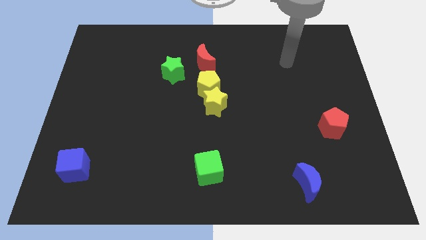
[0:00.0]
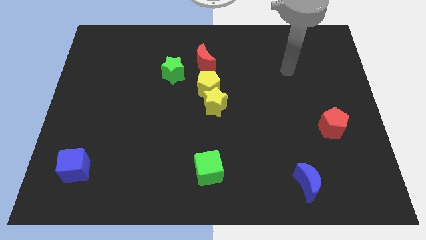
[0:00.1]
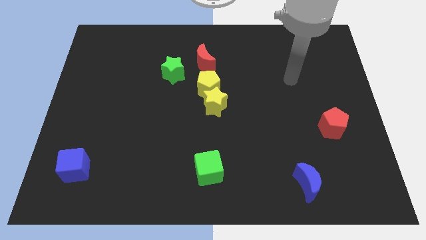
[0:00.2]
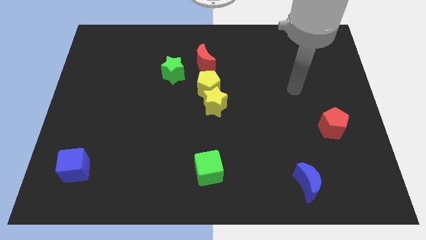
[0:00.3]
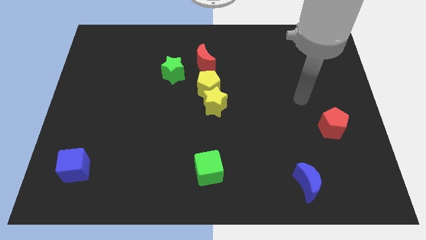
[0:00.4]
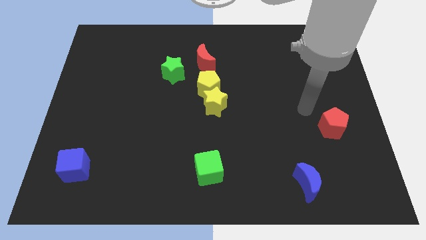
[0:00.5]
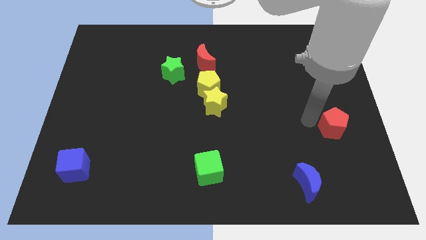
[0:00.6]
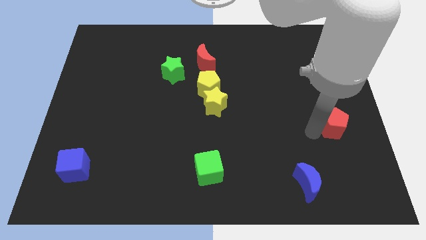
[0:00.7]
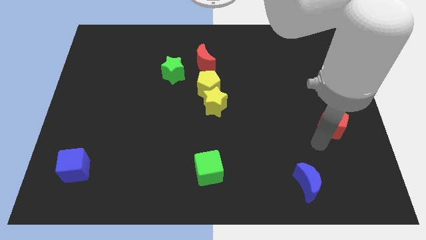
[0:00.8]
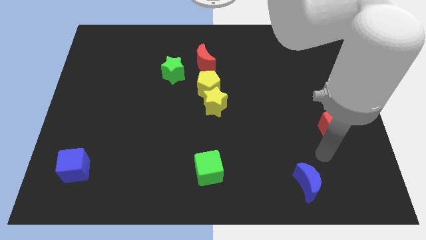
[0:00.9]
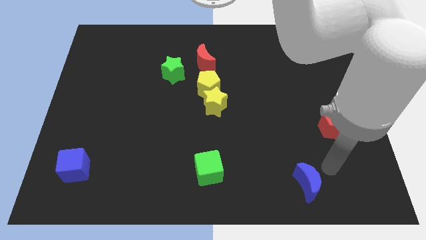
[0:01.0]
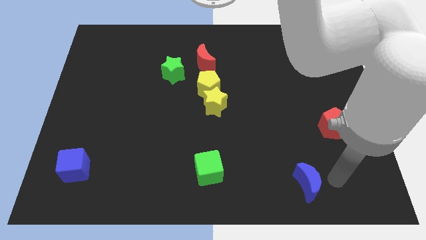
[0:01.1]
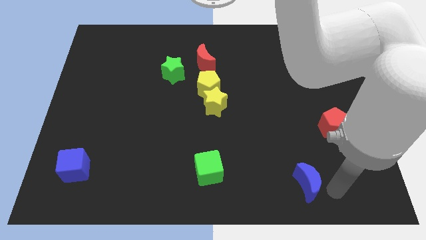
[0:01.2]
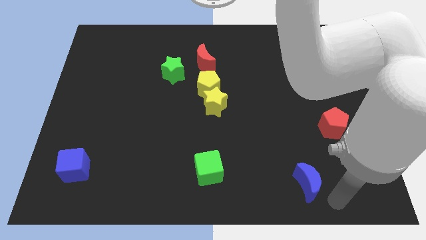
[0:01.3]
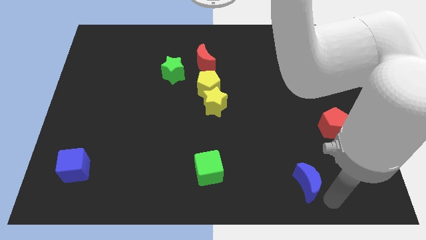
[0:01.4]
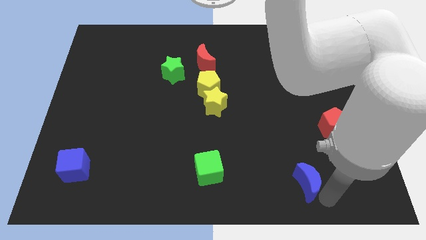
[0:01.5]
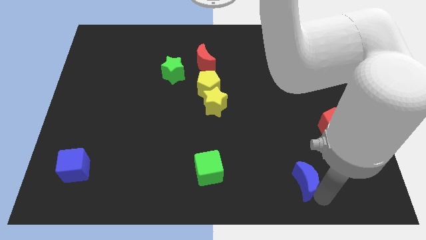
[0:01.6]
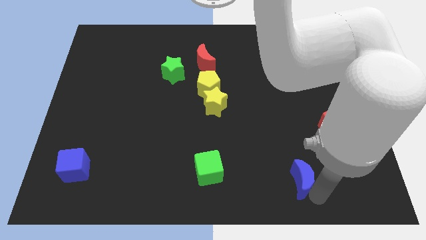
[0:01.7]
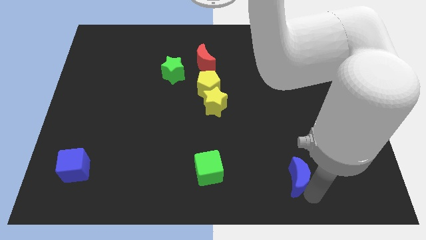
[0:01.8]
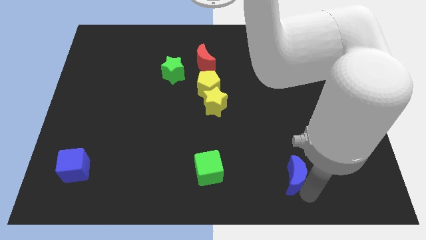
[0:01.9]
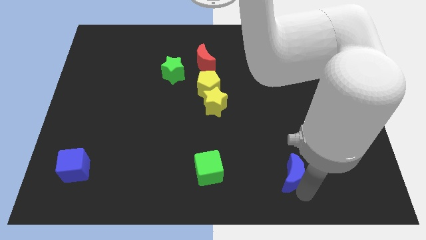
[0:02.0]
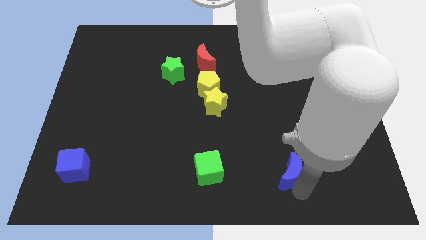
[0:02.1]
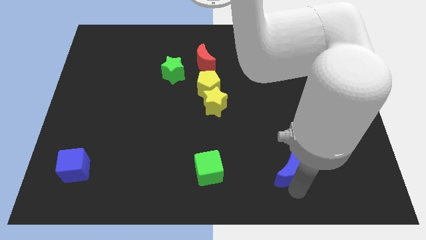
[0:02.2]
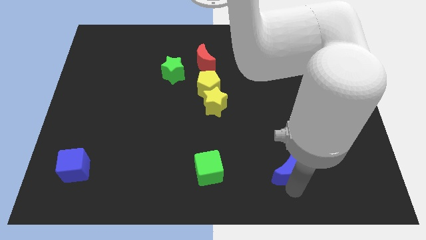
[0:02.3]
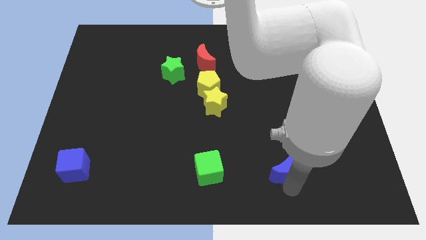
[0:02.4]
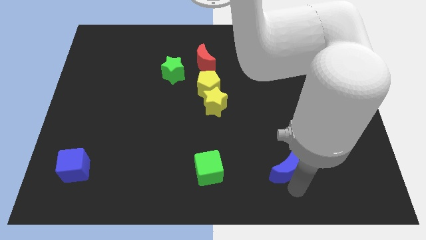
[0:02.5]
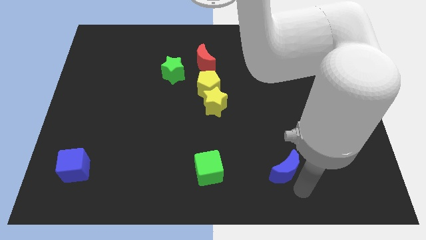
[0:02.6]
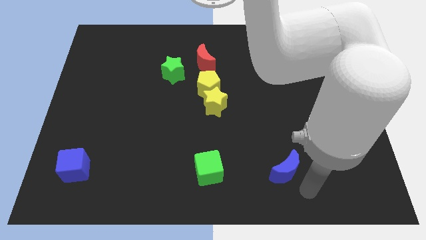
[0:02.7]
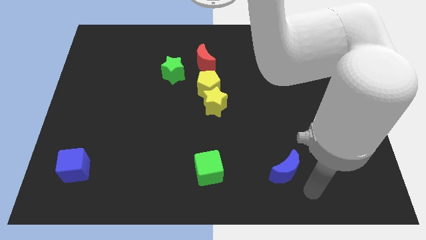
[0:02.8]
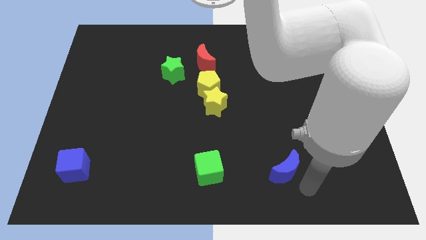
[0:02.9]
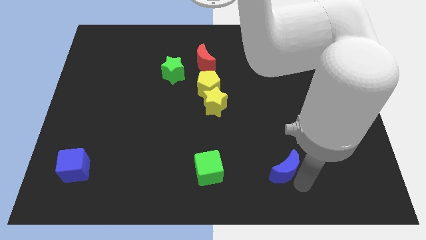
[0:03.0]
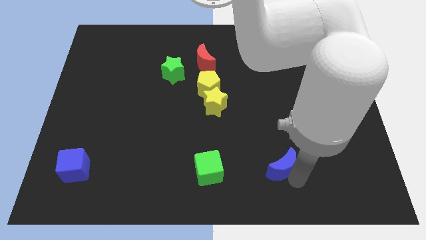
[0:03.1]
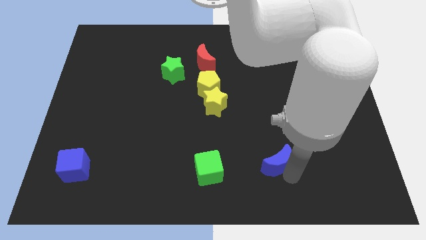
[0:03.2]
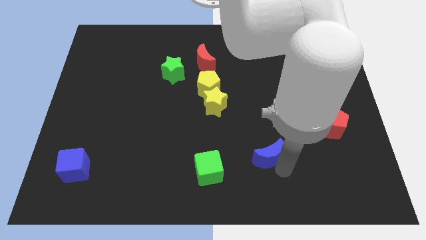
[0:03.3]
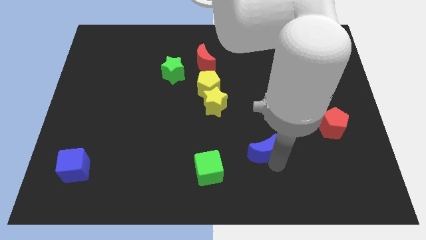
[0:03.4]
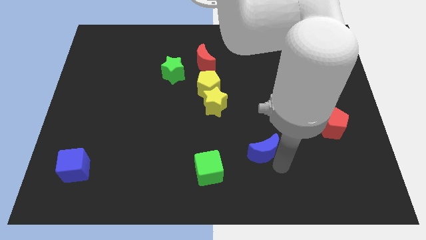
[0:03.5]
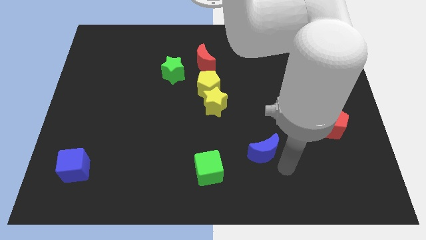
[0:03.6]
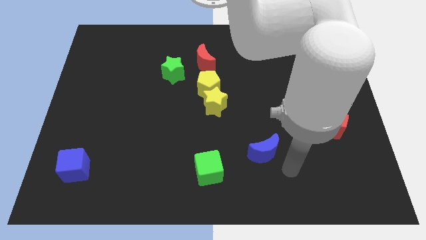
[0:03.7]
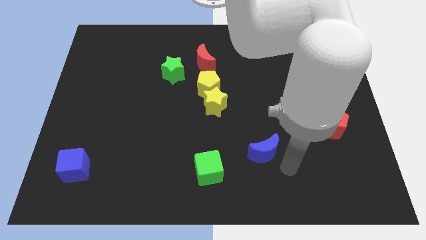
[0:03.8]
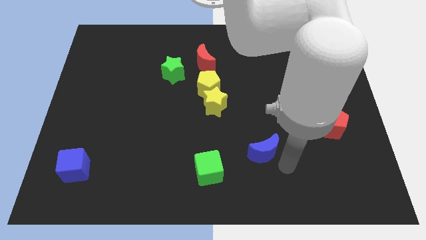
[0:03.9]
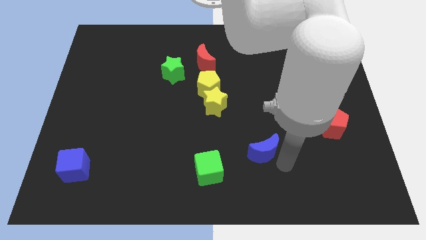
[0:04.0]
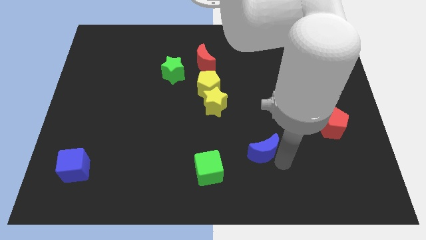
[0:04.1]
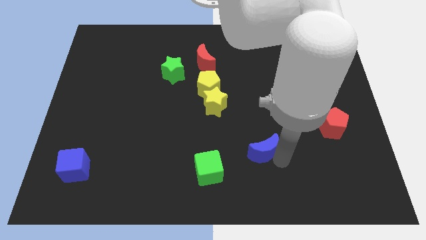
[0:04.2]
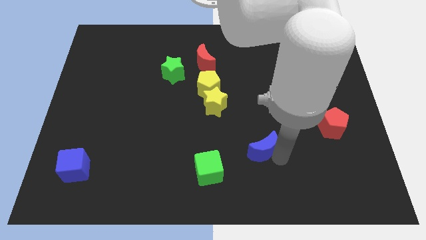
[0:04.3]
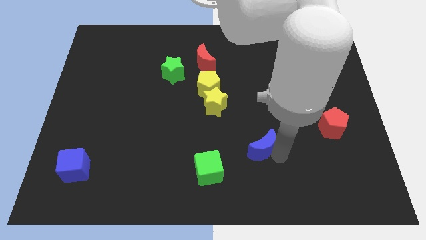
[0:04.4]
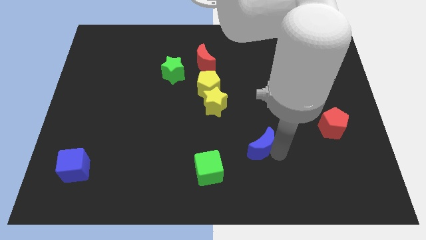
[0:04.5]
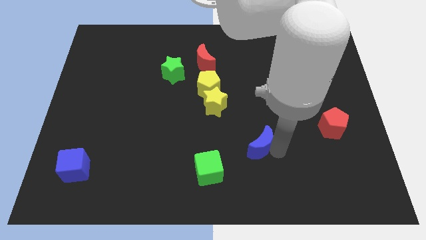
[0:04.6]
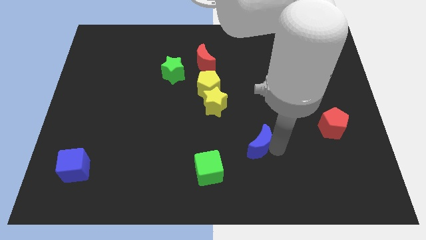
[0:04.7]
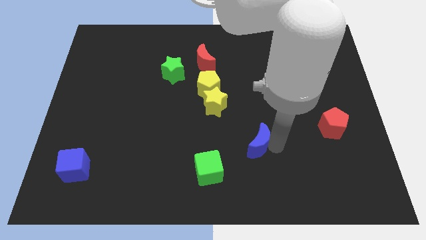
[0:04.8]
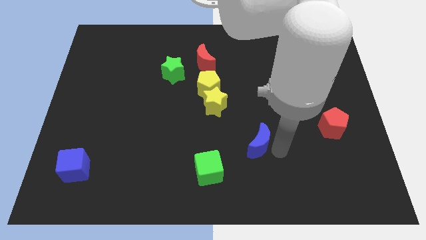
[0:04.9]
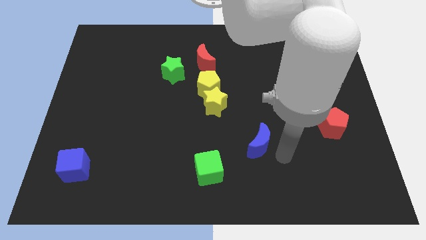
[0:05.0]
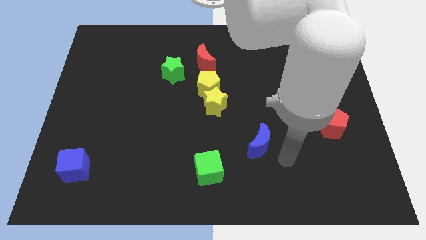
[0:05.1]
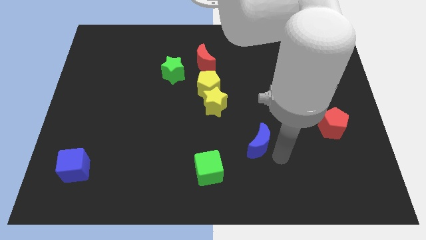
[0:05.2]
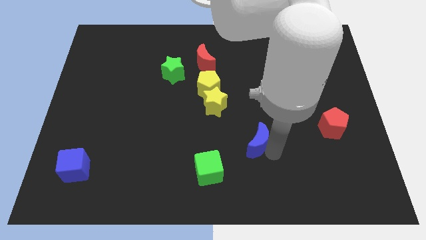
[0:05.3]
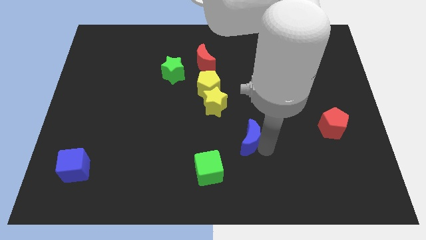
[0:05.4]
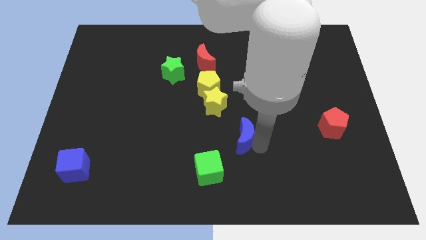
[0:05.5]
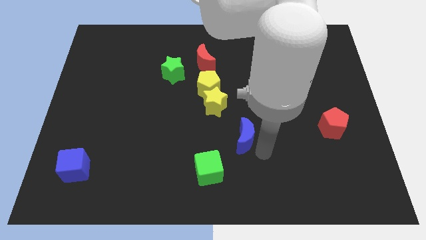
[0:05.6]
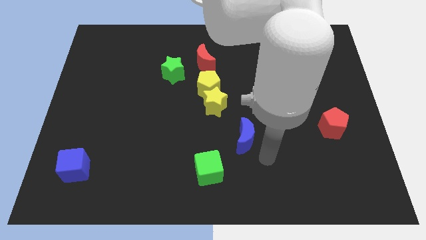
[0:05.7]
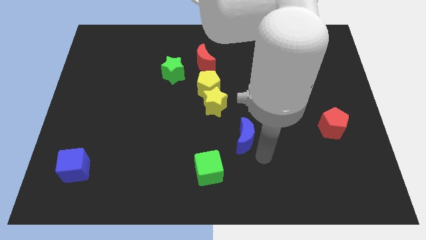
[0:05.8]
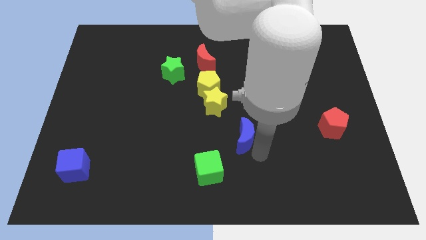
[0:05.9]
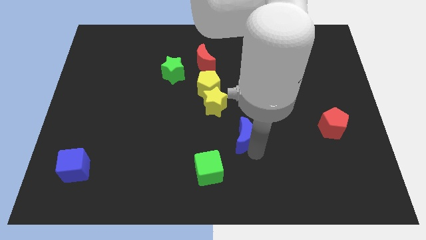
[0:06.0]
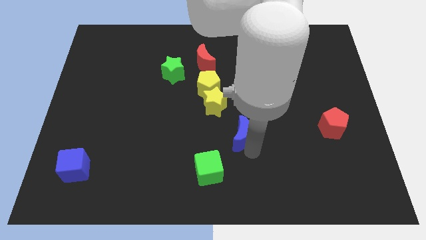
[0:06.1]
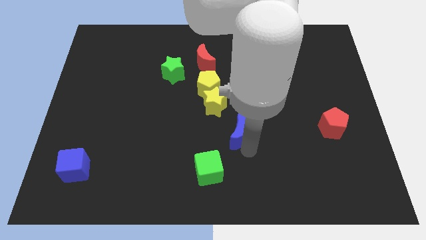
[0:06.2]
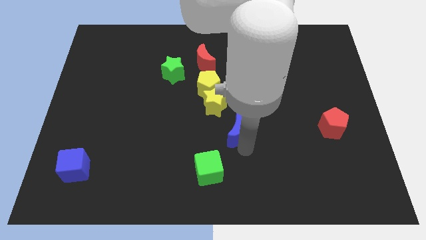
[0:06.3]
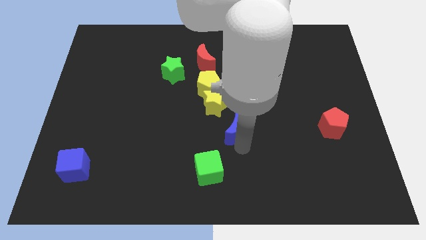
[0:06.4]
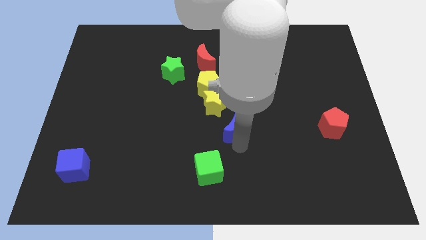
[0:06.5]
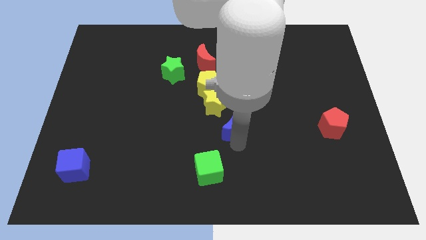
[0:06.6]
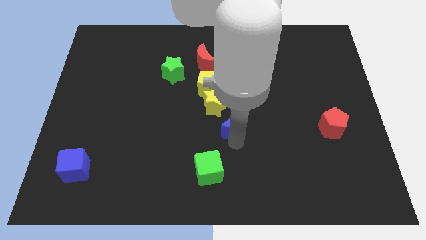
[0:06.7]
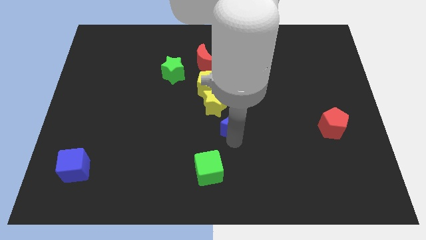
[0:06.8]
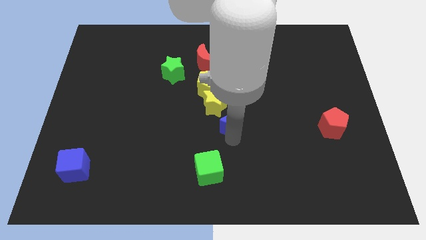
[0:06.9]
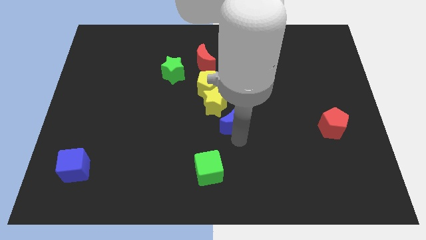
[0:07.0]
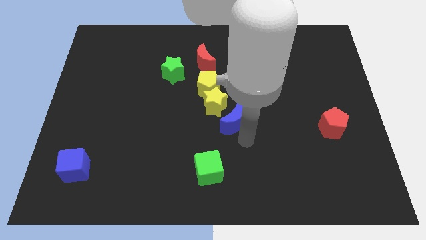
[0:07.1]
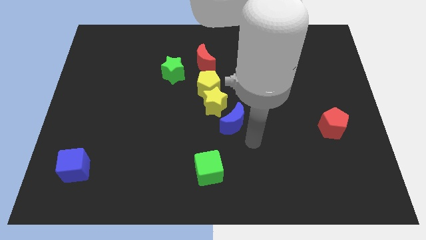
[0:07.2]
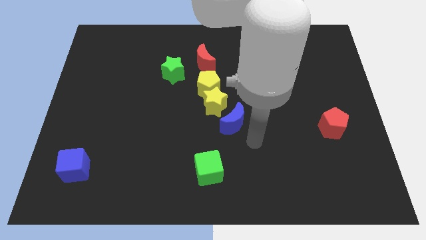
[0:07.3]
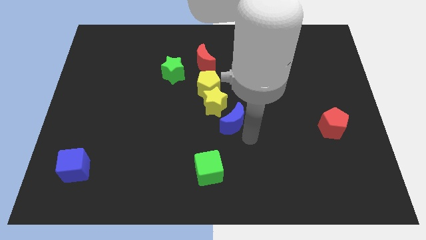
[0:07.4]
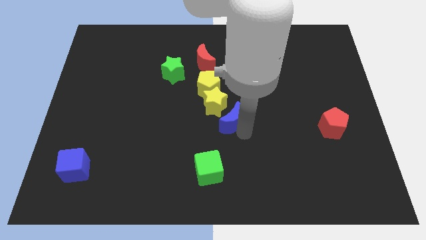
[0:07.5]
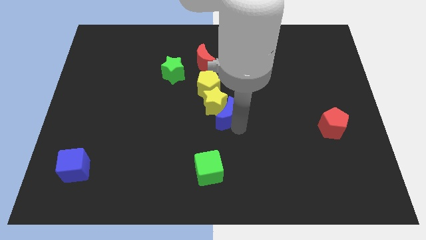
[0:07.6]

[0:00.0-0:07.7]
put the blue moon close to the yellow star
